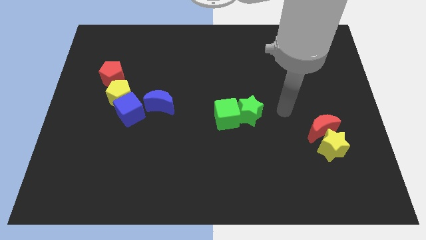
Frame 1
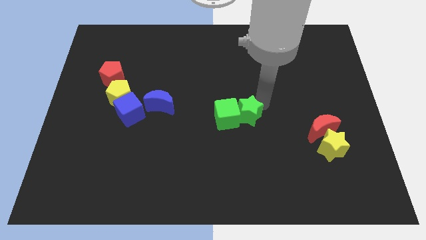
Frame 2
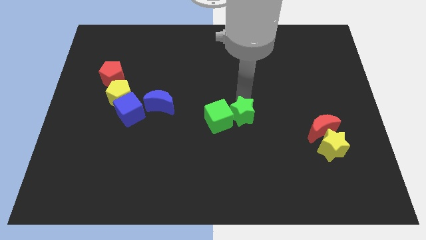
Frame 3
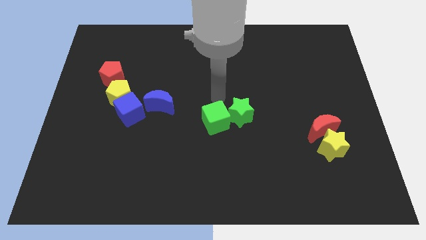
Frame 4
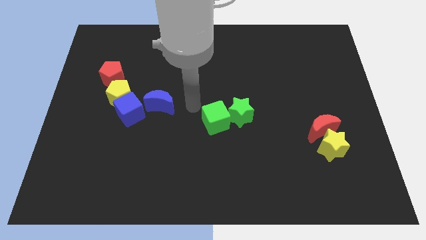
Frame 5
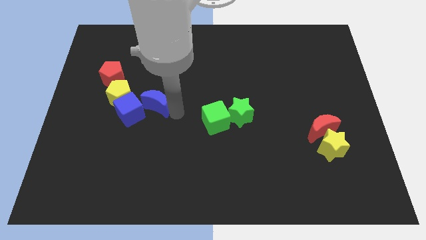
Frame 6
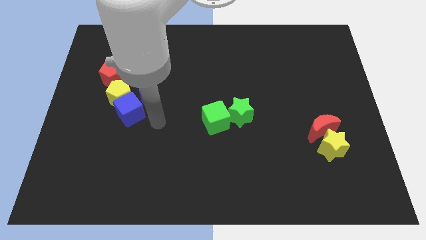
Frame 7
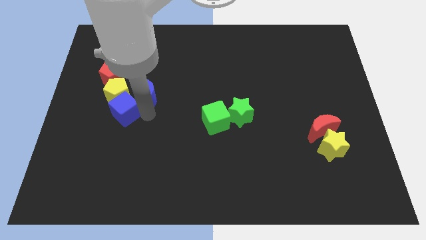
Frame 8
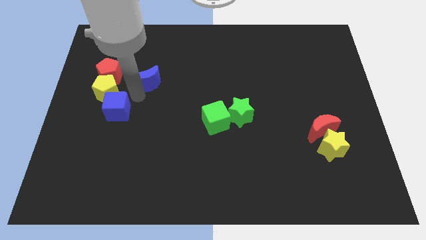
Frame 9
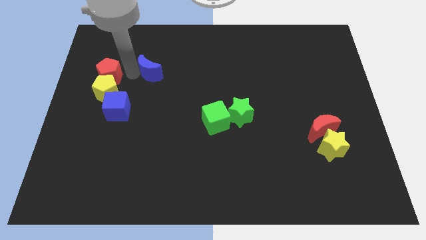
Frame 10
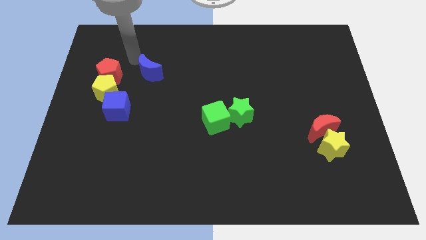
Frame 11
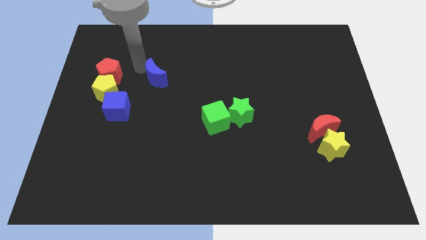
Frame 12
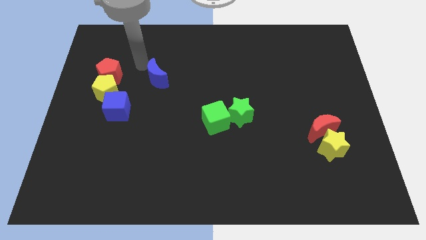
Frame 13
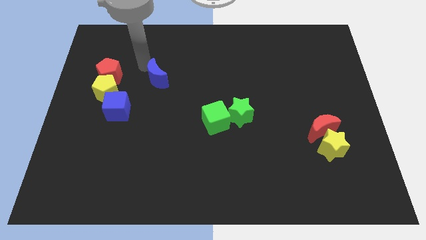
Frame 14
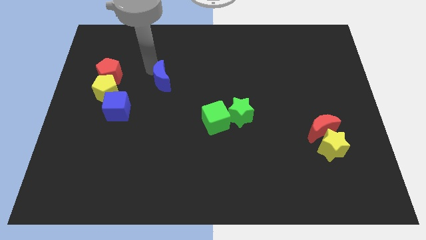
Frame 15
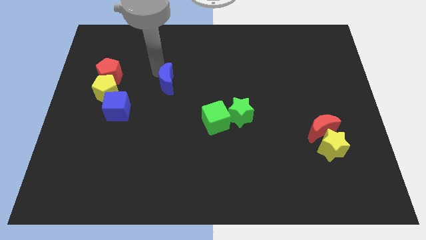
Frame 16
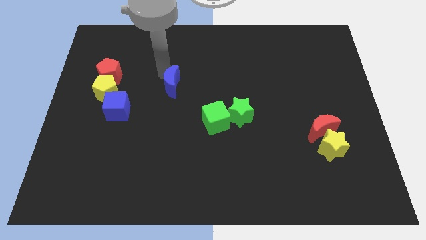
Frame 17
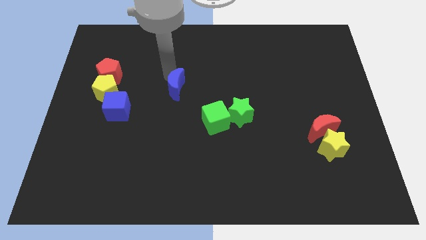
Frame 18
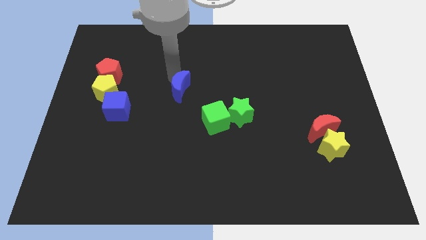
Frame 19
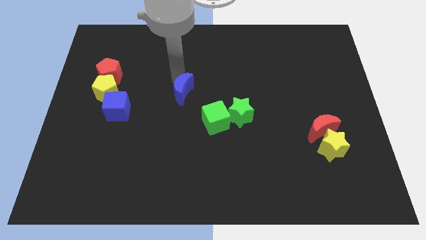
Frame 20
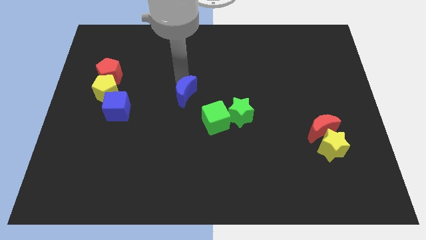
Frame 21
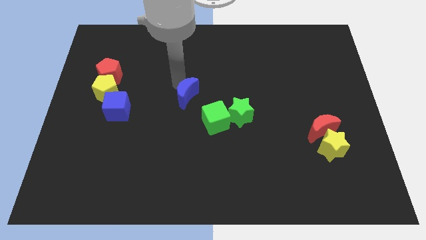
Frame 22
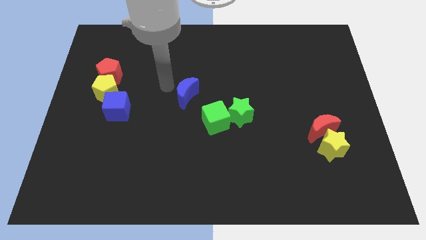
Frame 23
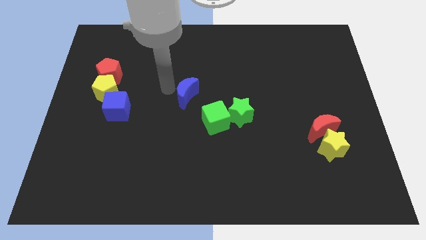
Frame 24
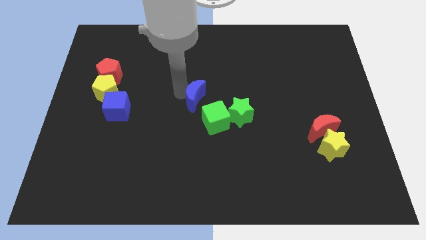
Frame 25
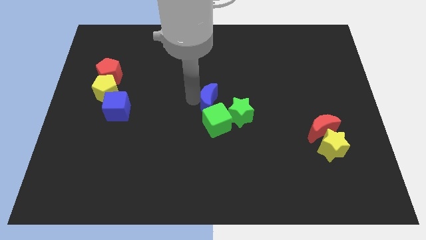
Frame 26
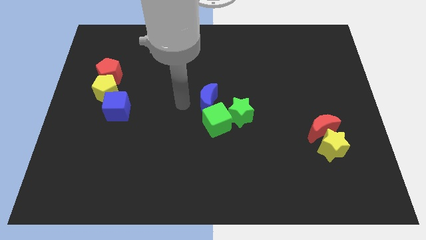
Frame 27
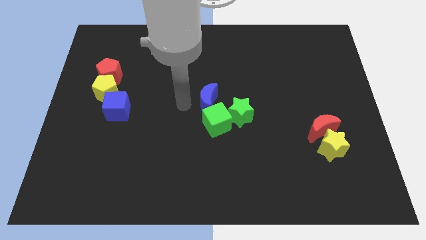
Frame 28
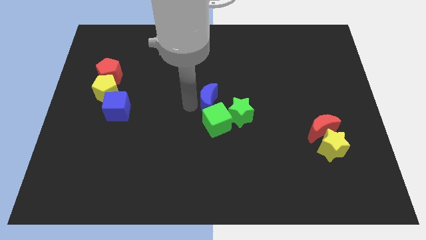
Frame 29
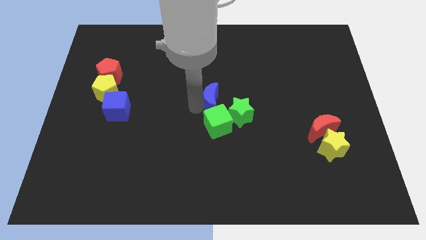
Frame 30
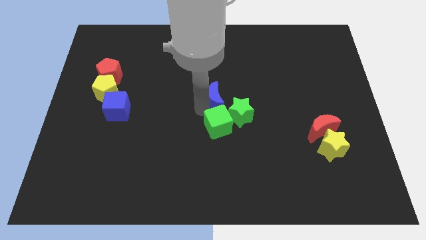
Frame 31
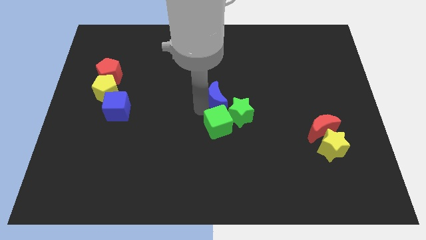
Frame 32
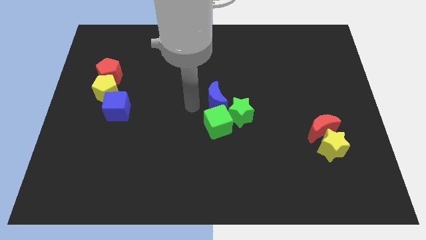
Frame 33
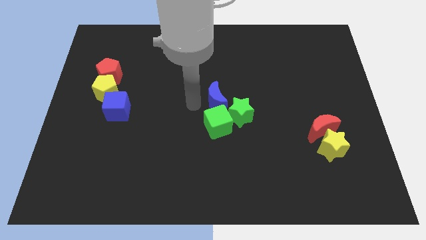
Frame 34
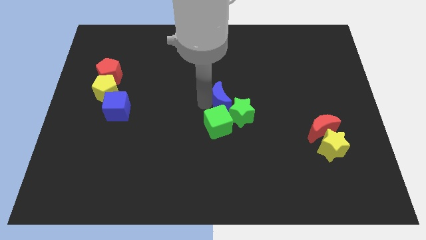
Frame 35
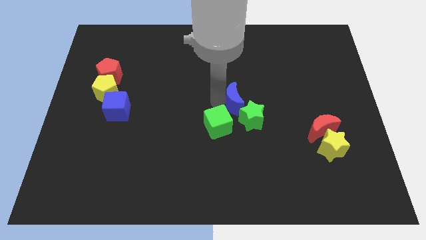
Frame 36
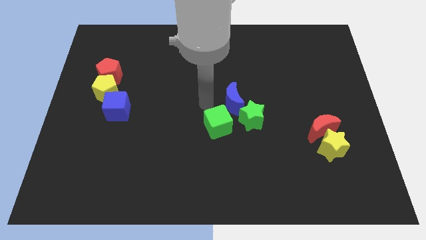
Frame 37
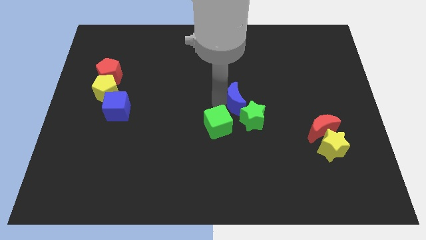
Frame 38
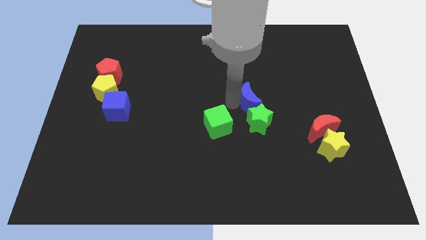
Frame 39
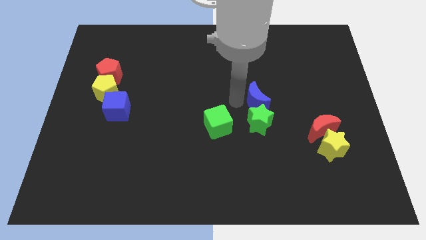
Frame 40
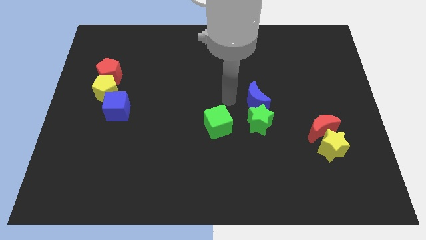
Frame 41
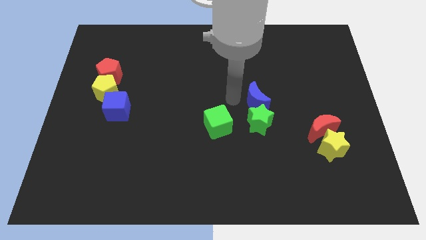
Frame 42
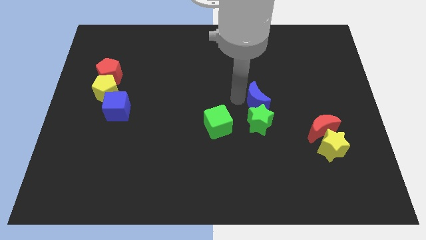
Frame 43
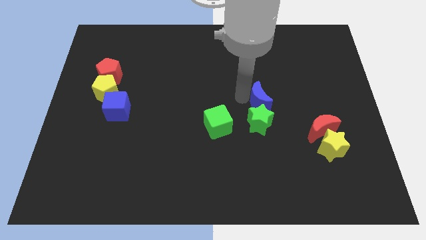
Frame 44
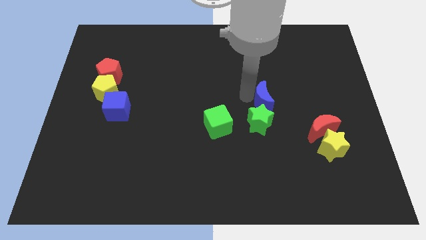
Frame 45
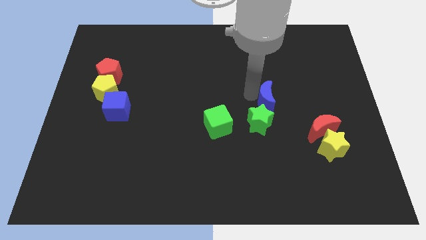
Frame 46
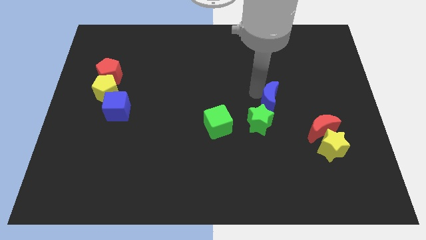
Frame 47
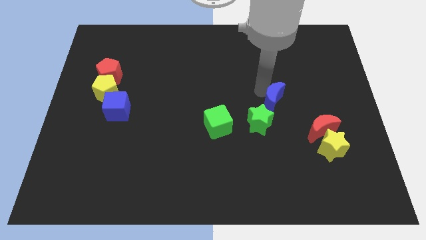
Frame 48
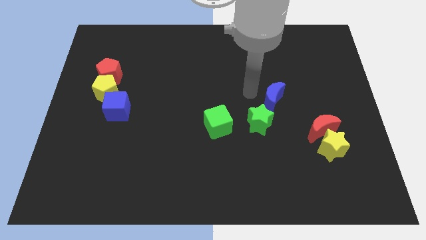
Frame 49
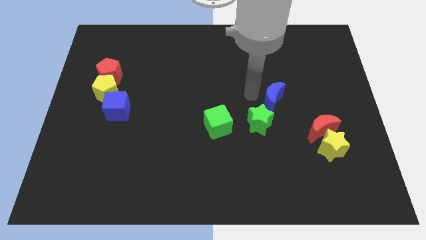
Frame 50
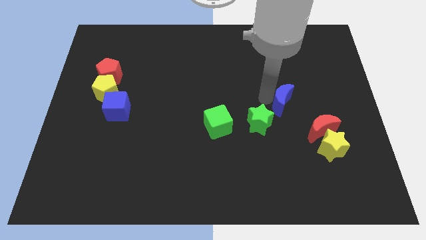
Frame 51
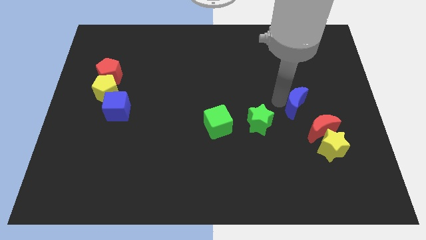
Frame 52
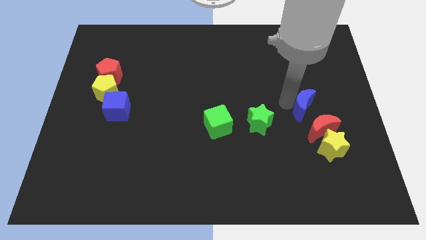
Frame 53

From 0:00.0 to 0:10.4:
move the blue moon to the top side of the yellow star

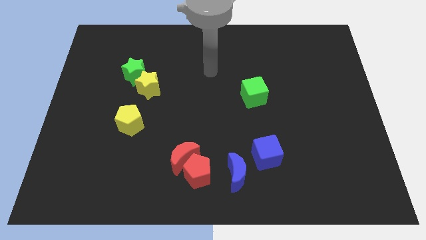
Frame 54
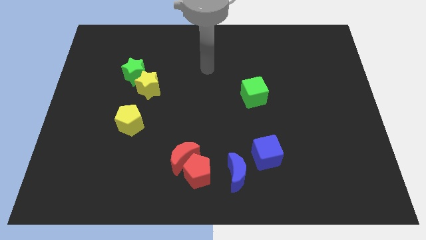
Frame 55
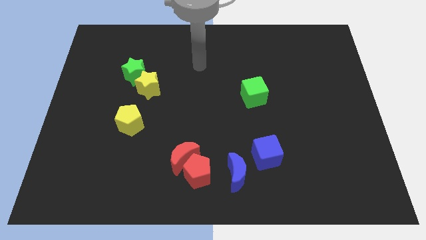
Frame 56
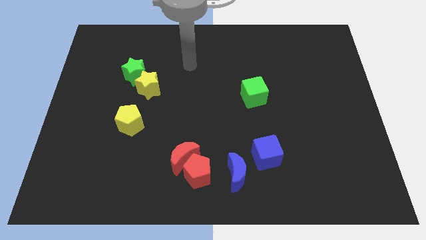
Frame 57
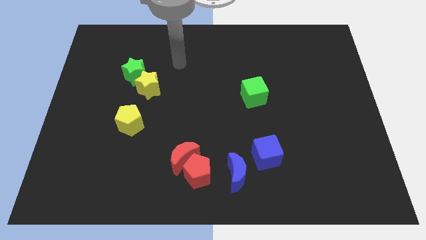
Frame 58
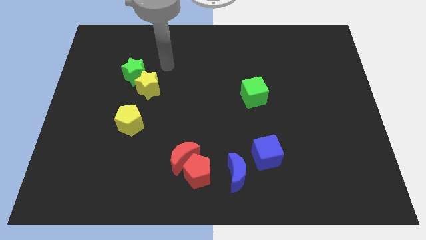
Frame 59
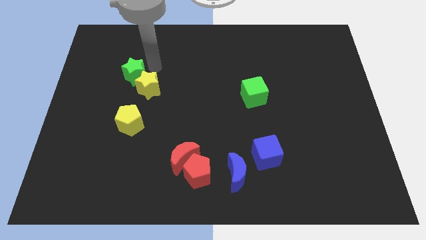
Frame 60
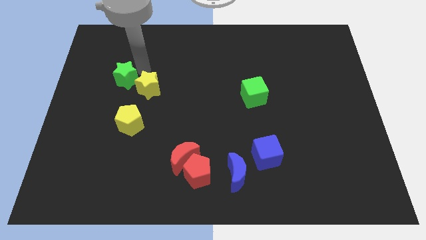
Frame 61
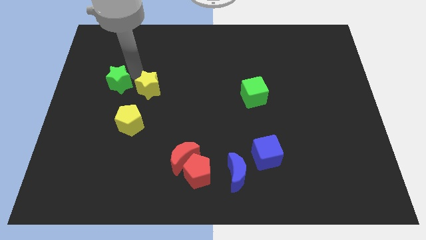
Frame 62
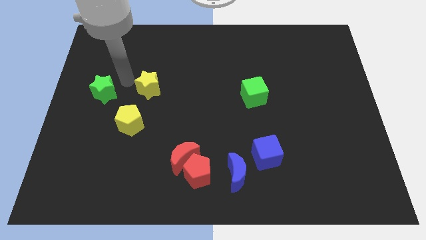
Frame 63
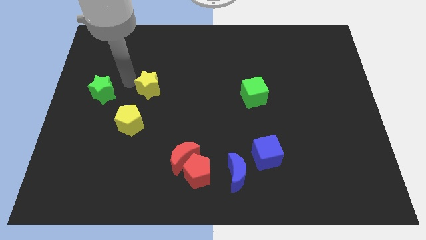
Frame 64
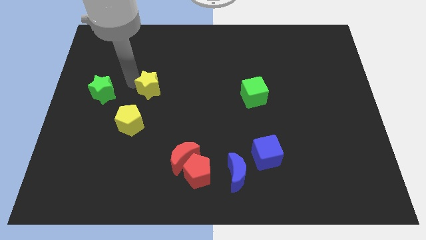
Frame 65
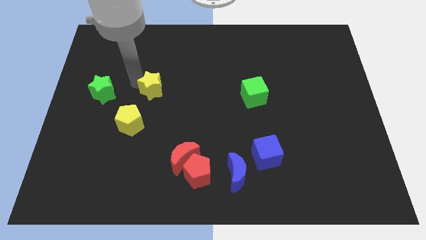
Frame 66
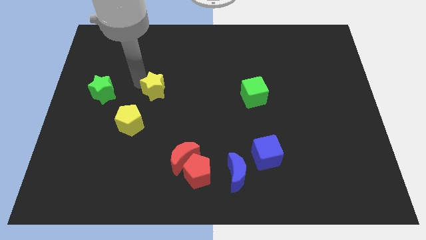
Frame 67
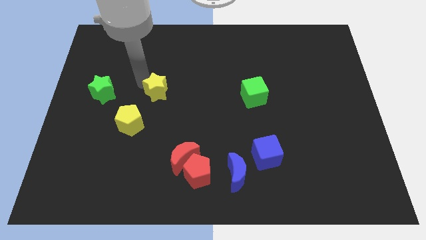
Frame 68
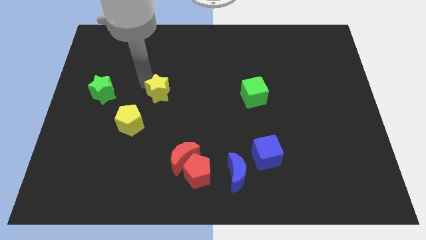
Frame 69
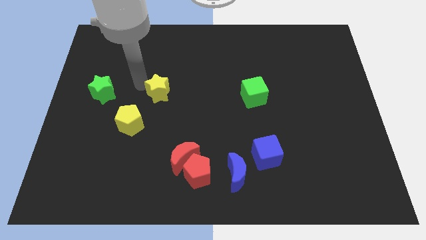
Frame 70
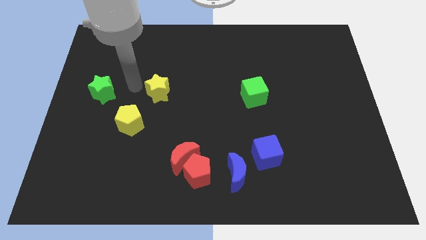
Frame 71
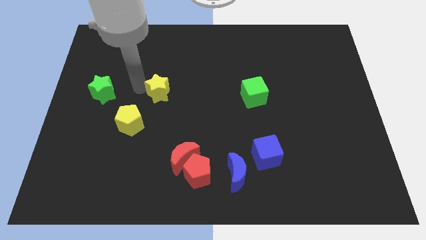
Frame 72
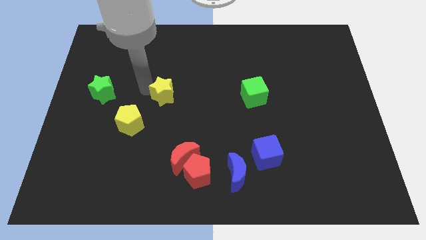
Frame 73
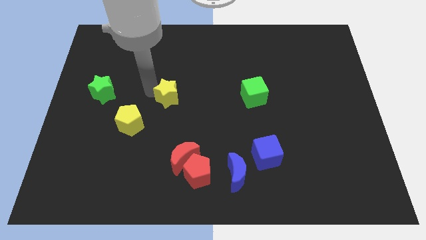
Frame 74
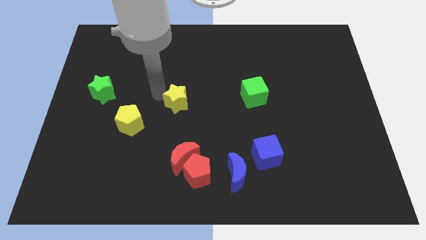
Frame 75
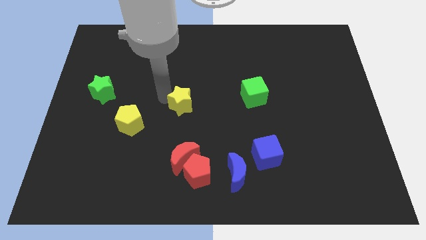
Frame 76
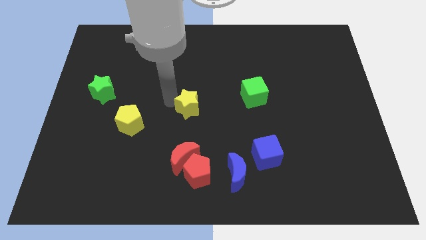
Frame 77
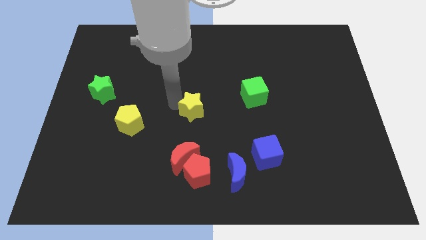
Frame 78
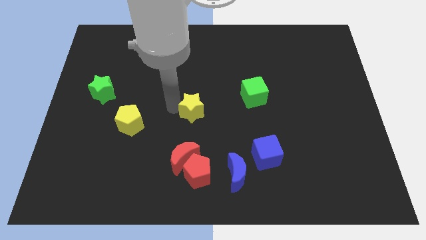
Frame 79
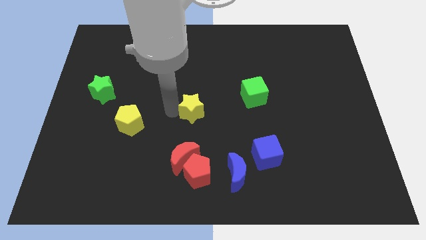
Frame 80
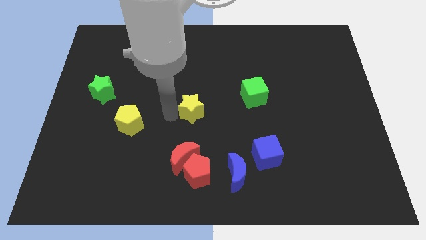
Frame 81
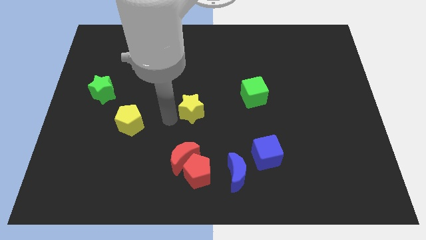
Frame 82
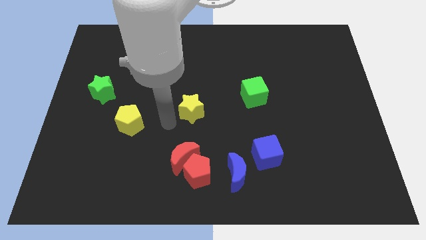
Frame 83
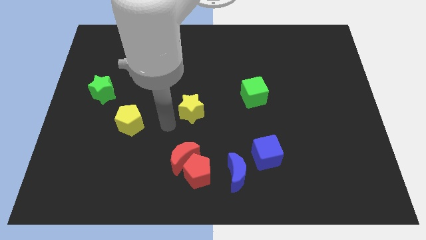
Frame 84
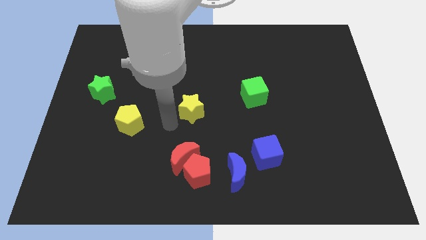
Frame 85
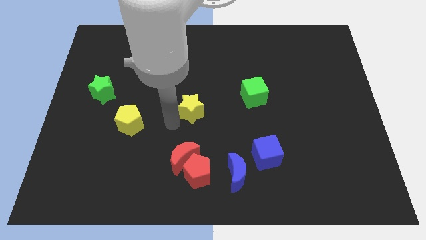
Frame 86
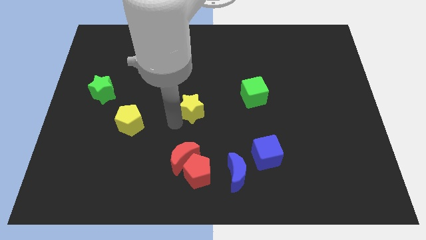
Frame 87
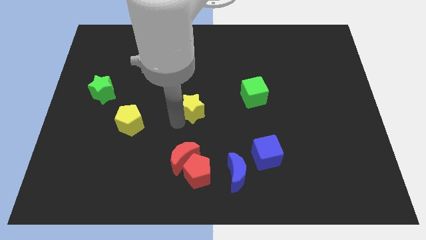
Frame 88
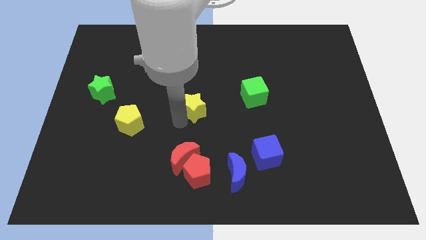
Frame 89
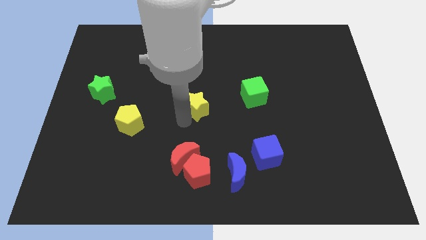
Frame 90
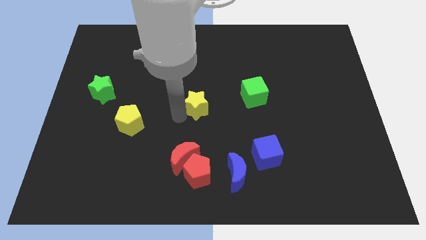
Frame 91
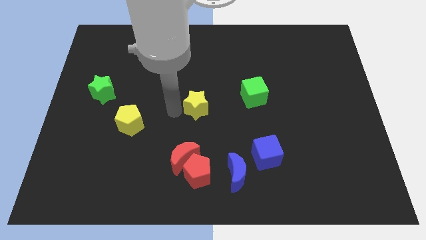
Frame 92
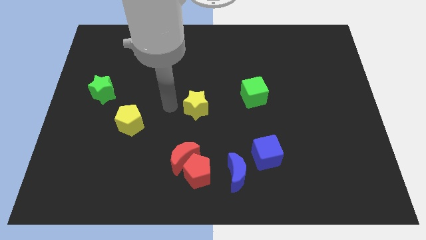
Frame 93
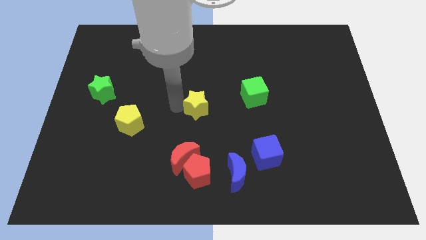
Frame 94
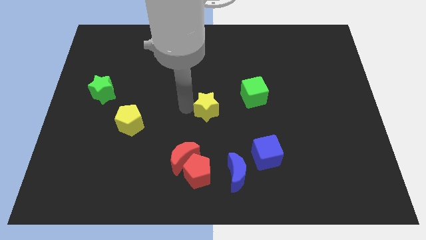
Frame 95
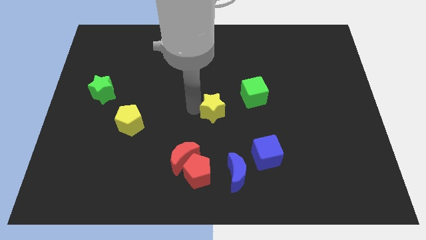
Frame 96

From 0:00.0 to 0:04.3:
push the yellow star diagonally down and to the left of the green cube
